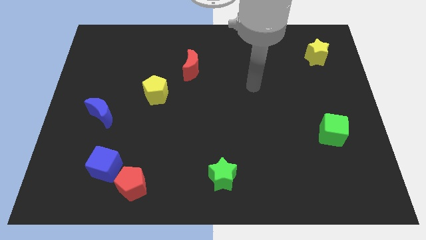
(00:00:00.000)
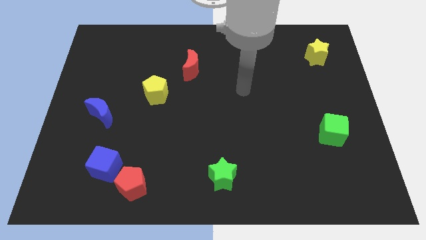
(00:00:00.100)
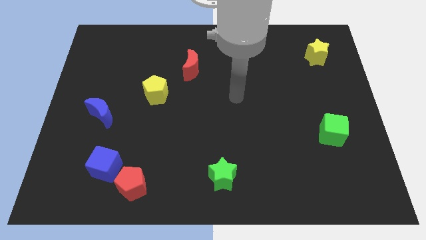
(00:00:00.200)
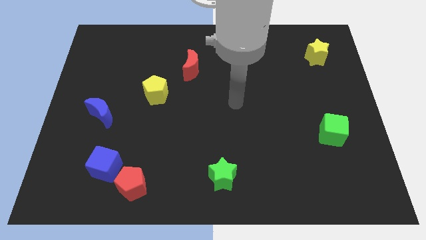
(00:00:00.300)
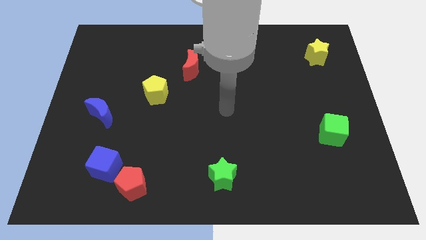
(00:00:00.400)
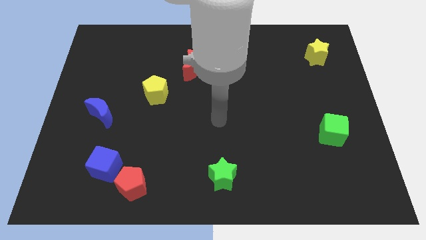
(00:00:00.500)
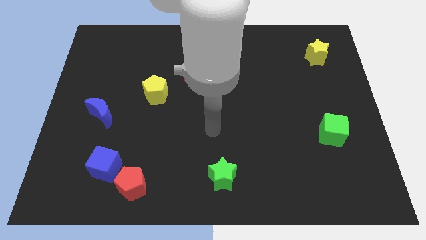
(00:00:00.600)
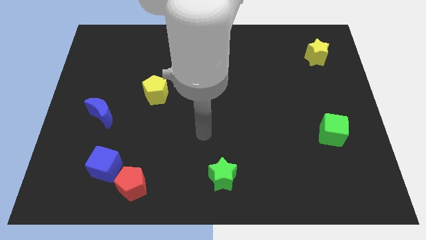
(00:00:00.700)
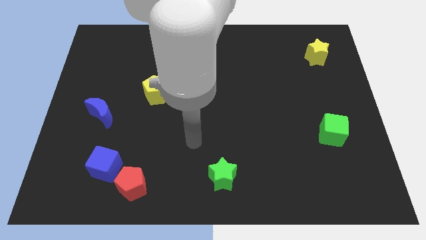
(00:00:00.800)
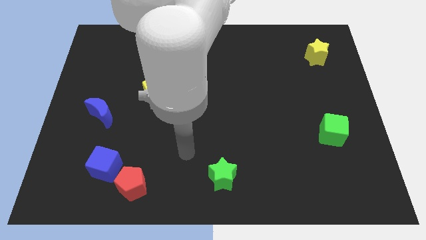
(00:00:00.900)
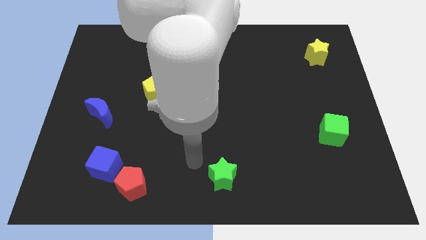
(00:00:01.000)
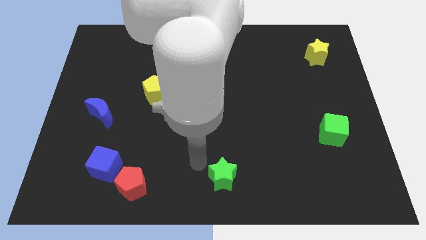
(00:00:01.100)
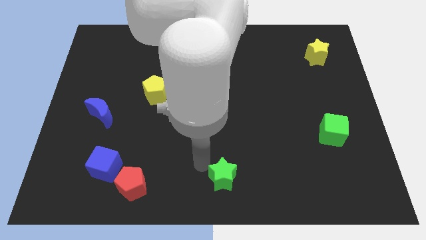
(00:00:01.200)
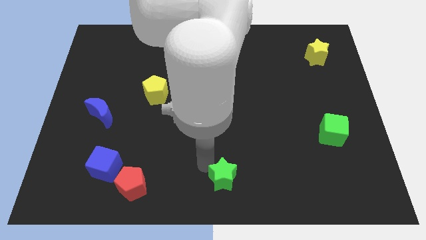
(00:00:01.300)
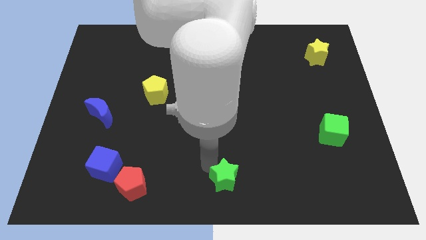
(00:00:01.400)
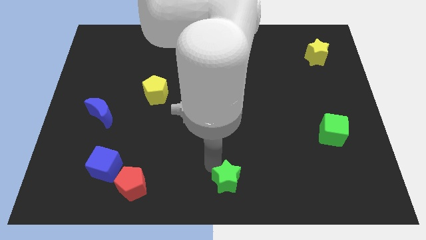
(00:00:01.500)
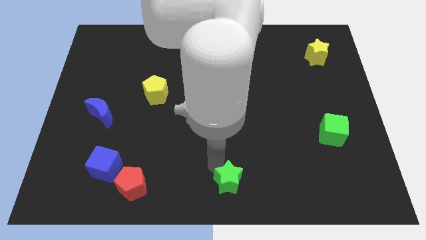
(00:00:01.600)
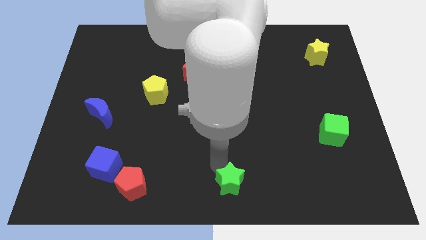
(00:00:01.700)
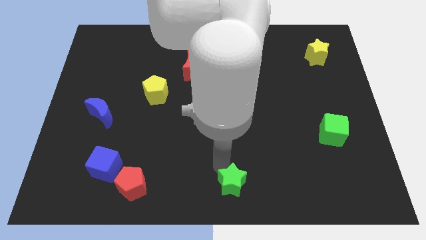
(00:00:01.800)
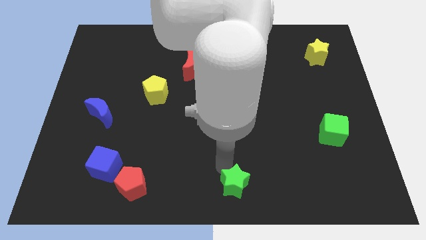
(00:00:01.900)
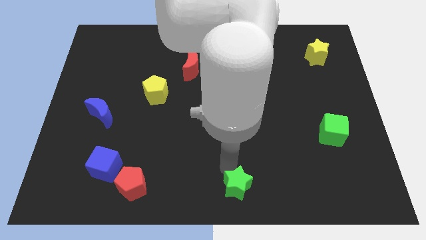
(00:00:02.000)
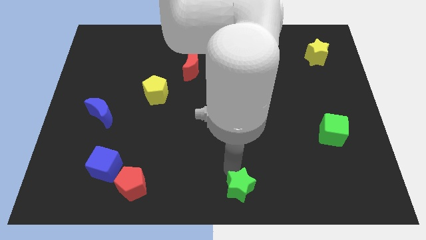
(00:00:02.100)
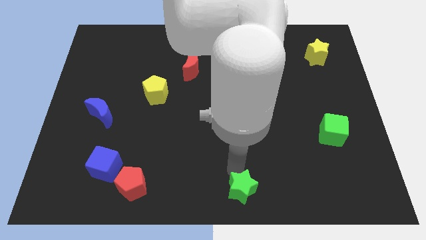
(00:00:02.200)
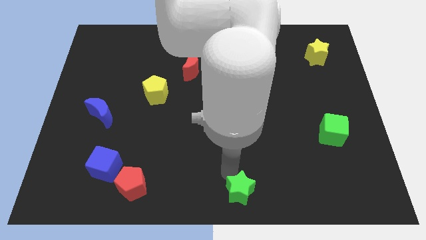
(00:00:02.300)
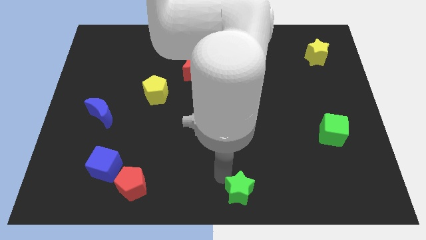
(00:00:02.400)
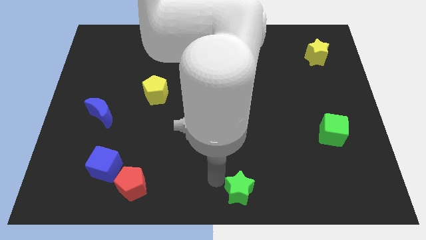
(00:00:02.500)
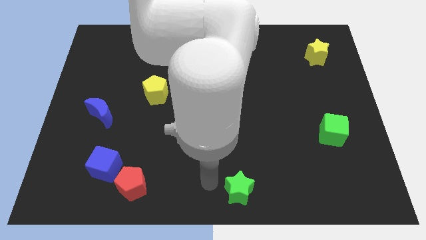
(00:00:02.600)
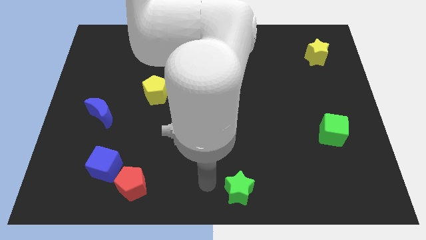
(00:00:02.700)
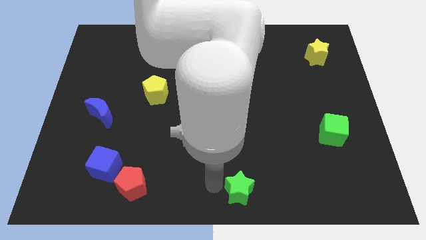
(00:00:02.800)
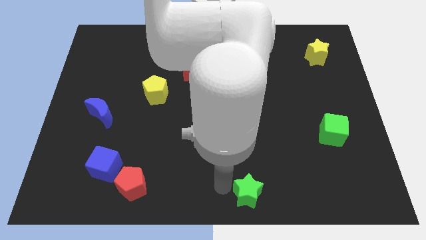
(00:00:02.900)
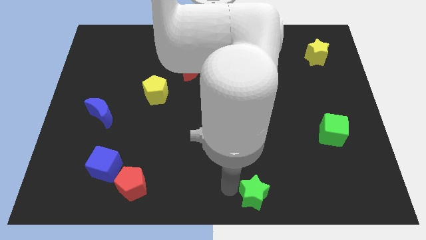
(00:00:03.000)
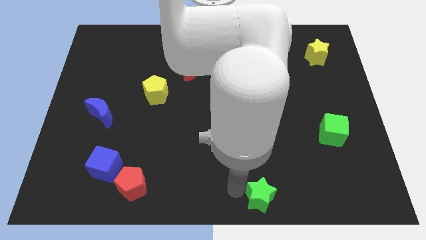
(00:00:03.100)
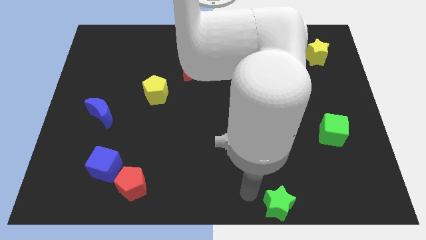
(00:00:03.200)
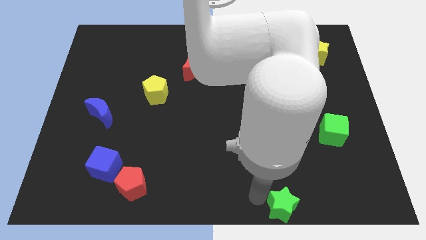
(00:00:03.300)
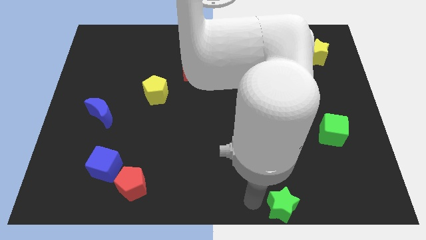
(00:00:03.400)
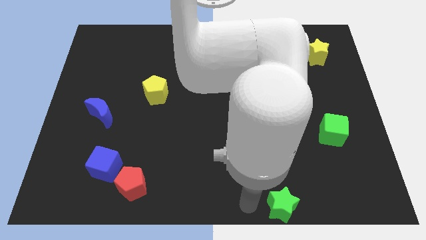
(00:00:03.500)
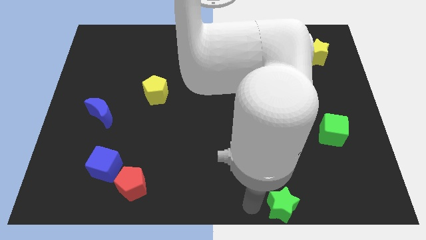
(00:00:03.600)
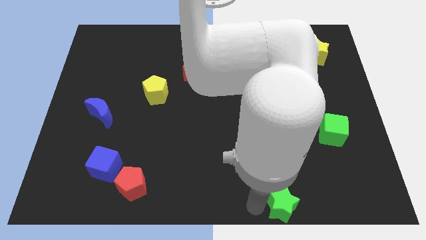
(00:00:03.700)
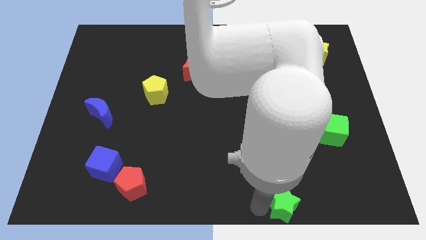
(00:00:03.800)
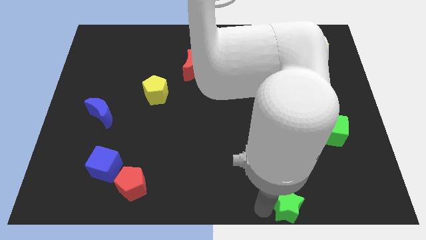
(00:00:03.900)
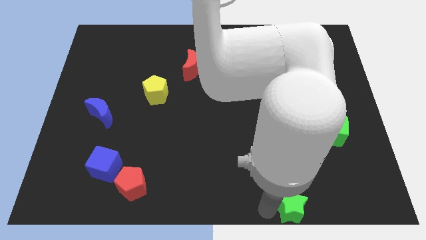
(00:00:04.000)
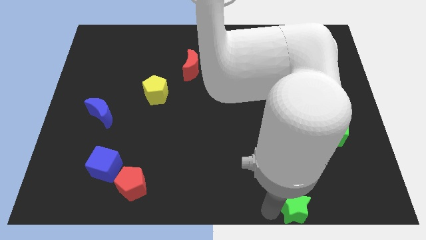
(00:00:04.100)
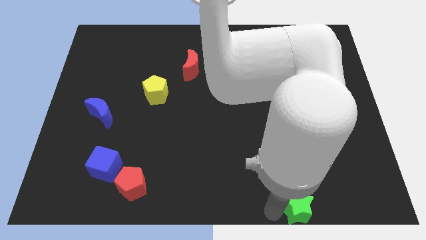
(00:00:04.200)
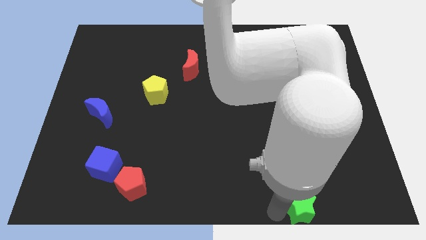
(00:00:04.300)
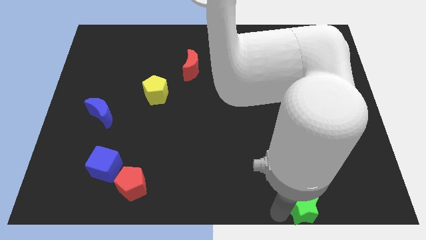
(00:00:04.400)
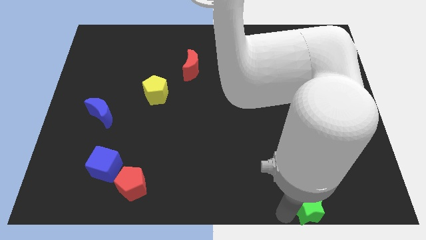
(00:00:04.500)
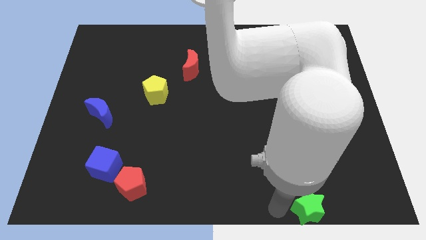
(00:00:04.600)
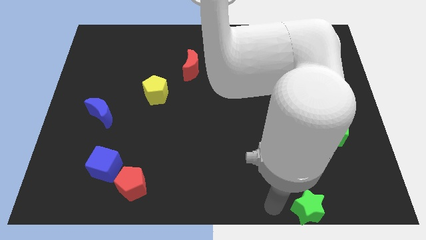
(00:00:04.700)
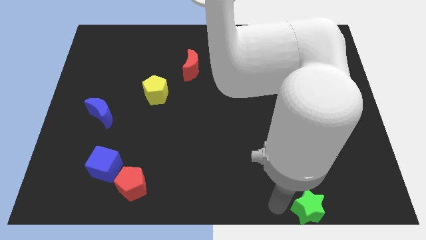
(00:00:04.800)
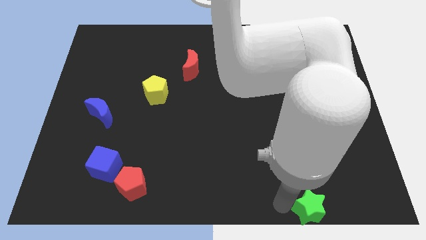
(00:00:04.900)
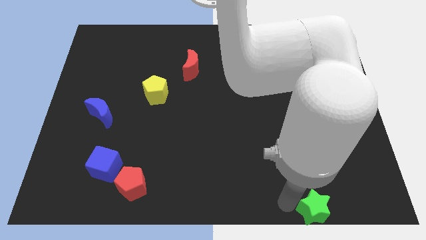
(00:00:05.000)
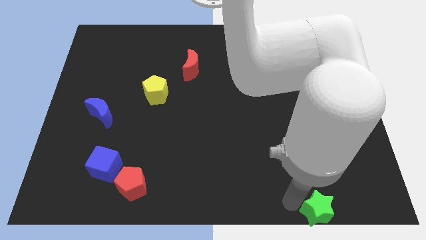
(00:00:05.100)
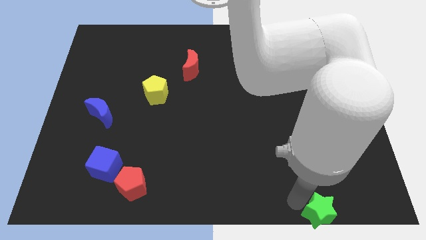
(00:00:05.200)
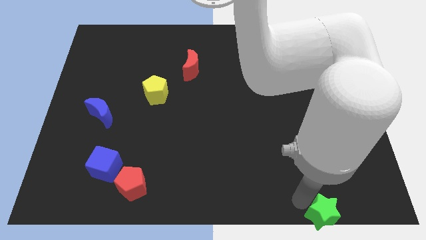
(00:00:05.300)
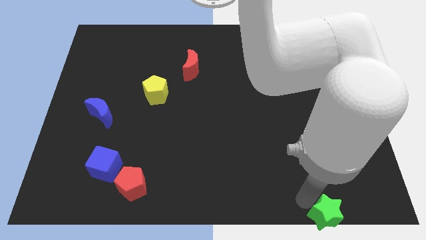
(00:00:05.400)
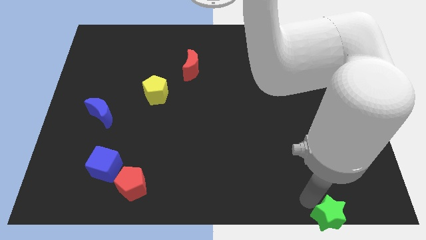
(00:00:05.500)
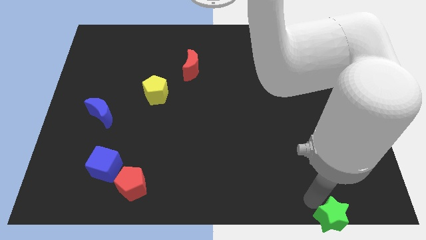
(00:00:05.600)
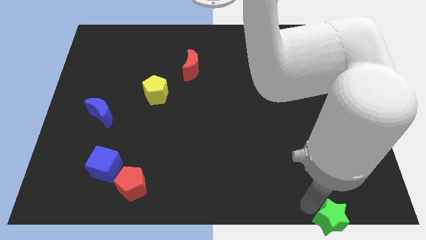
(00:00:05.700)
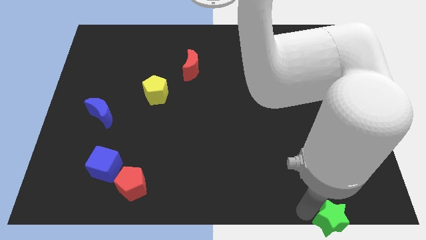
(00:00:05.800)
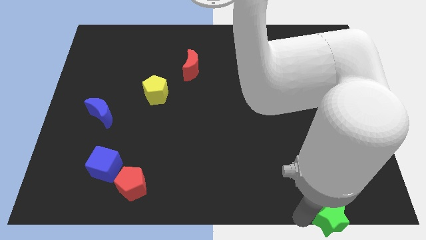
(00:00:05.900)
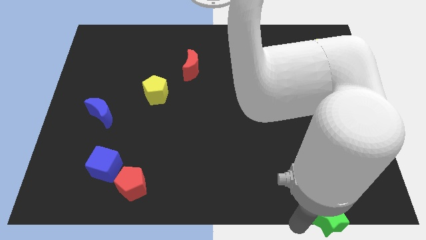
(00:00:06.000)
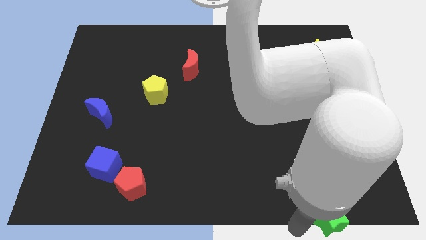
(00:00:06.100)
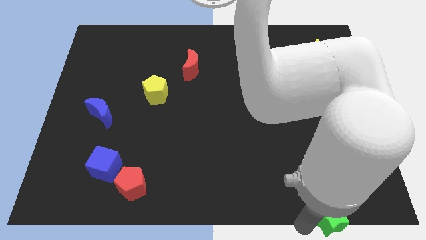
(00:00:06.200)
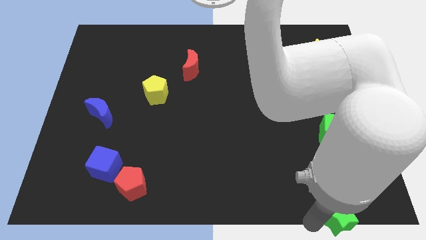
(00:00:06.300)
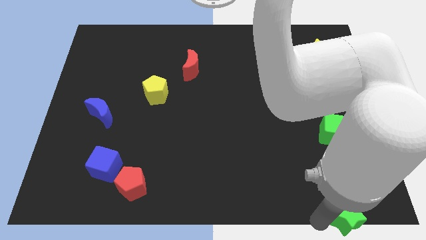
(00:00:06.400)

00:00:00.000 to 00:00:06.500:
push the green star to the bottom right

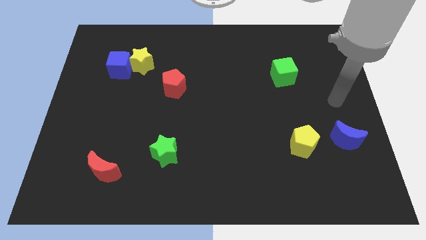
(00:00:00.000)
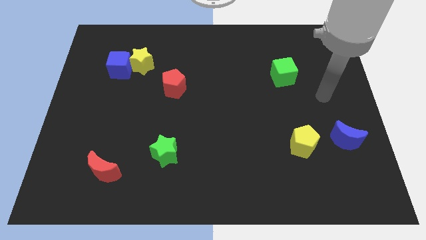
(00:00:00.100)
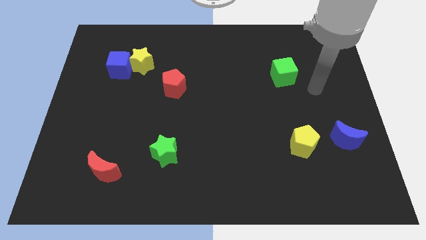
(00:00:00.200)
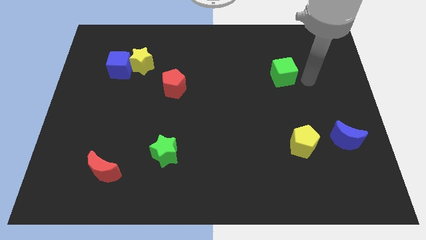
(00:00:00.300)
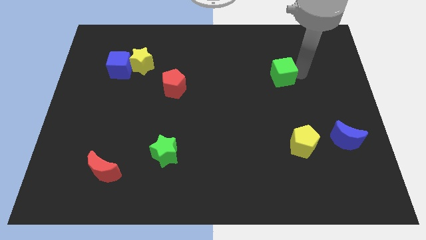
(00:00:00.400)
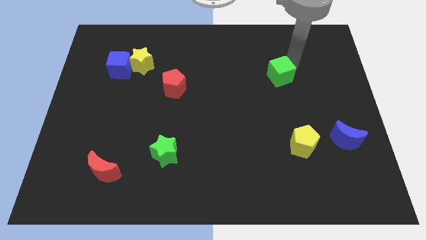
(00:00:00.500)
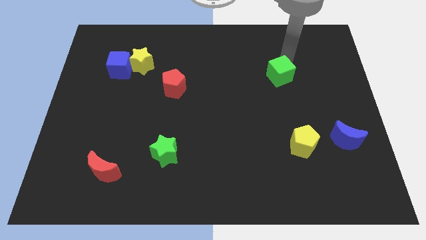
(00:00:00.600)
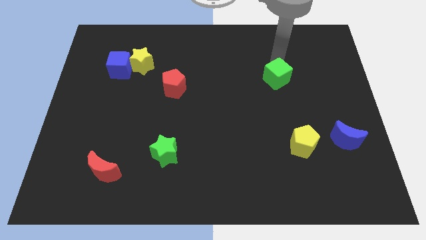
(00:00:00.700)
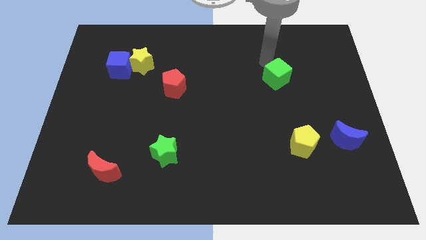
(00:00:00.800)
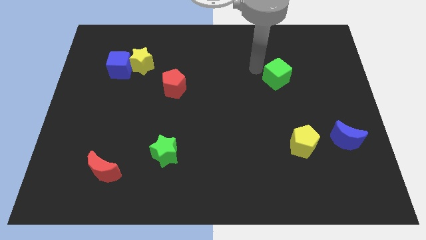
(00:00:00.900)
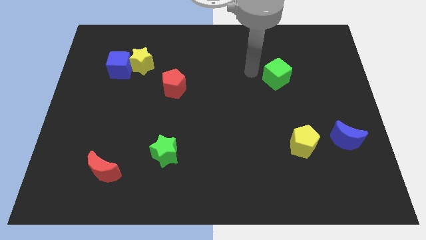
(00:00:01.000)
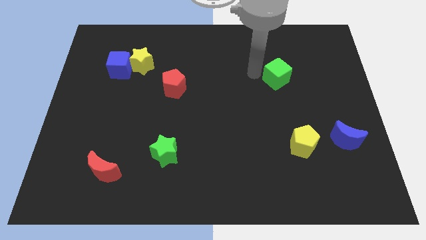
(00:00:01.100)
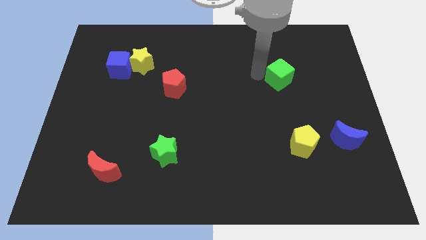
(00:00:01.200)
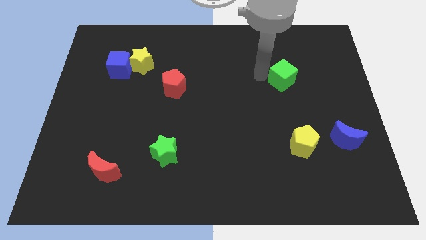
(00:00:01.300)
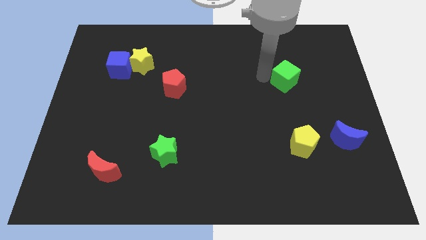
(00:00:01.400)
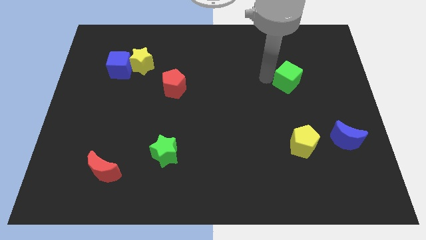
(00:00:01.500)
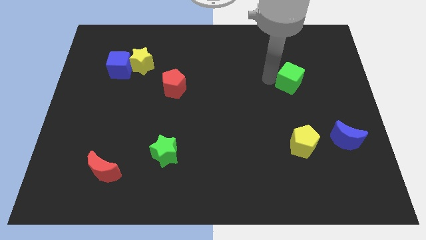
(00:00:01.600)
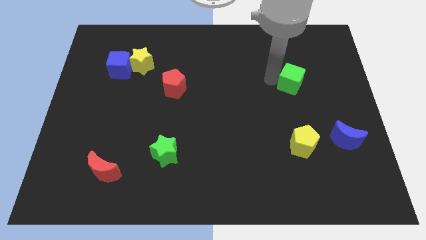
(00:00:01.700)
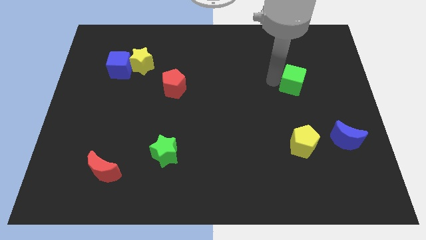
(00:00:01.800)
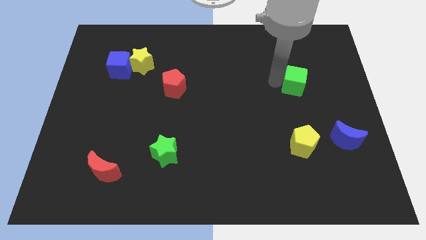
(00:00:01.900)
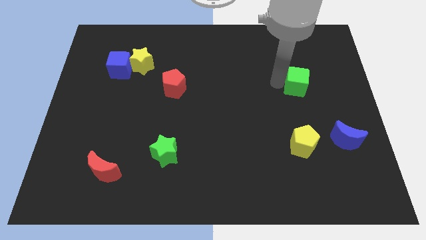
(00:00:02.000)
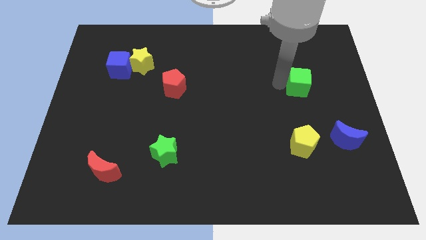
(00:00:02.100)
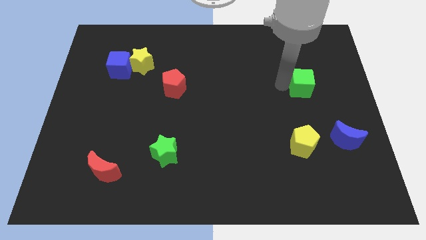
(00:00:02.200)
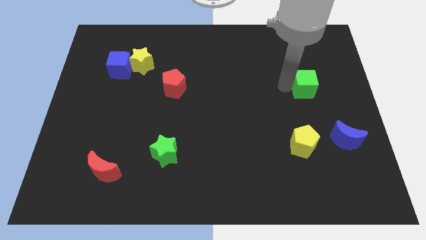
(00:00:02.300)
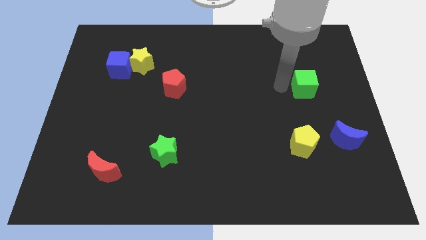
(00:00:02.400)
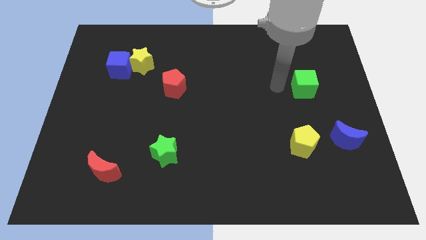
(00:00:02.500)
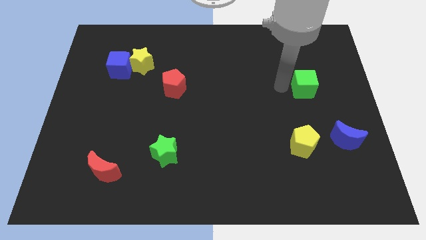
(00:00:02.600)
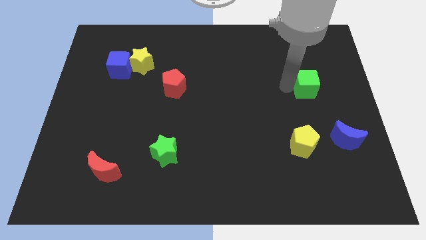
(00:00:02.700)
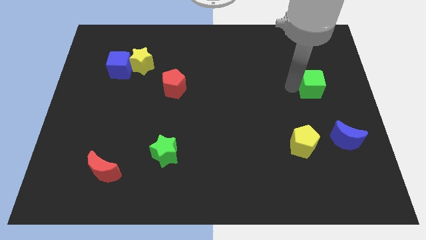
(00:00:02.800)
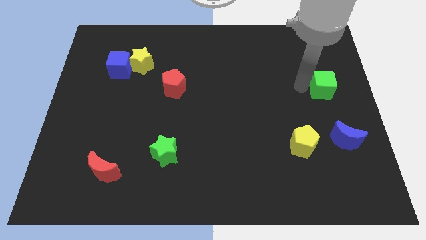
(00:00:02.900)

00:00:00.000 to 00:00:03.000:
slide the green cube to the right side of the board
